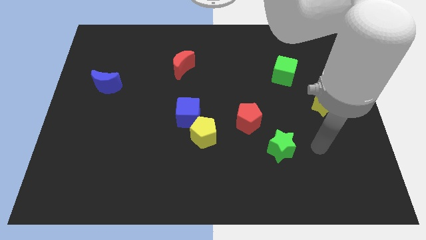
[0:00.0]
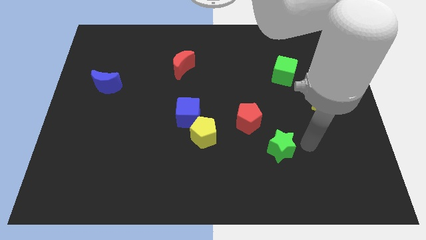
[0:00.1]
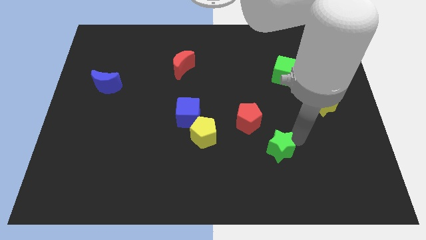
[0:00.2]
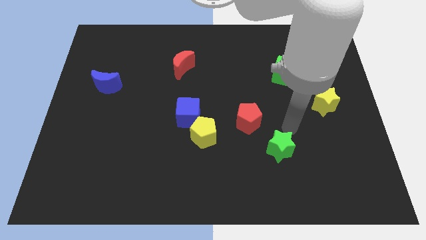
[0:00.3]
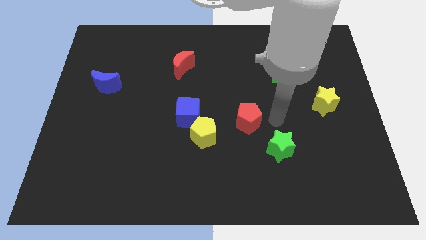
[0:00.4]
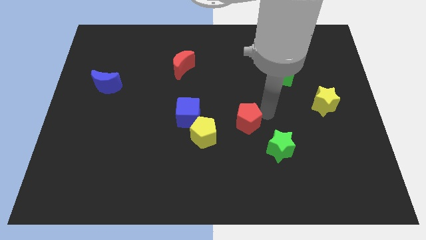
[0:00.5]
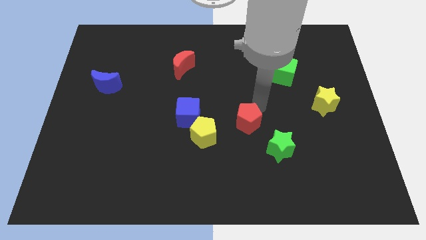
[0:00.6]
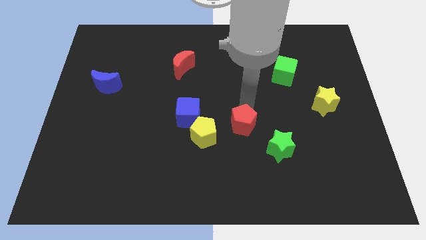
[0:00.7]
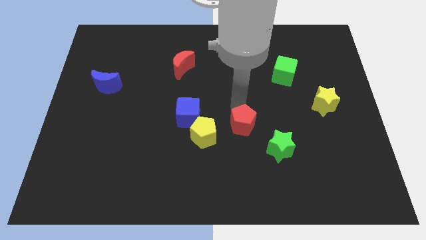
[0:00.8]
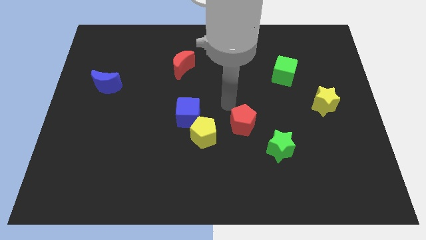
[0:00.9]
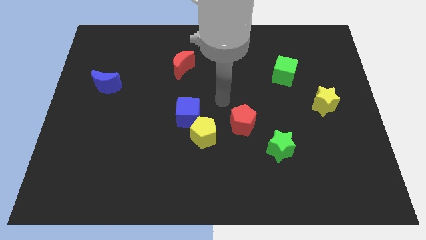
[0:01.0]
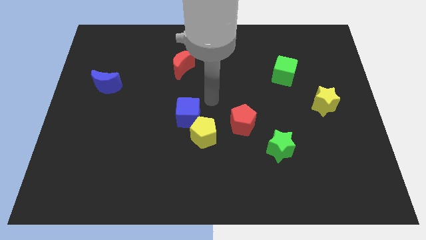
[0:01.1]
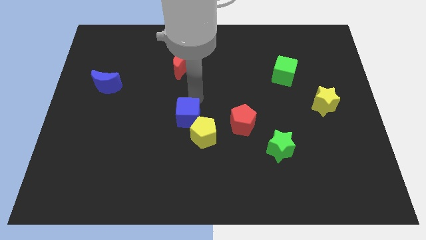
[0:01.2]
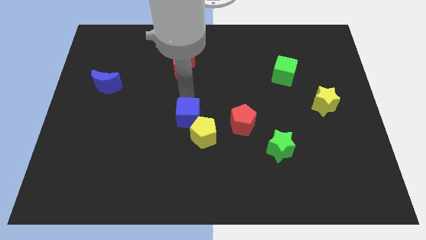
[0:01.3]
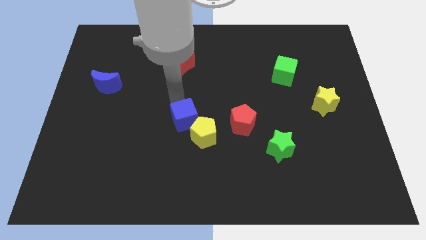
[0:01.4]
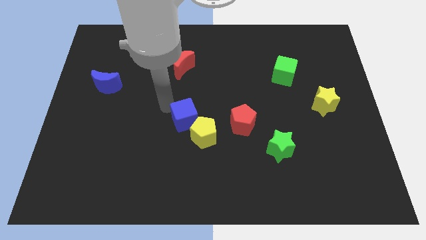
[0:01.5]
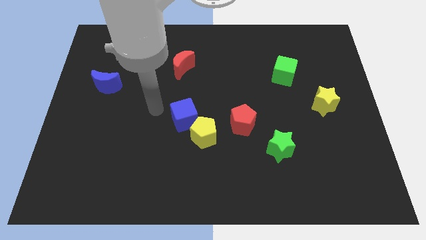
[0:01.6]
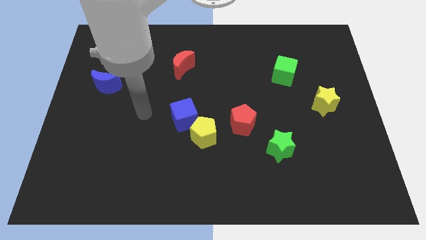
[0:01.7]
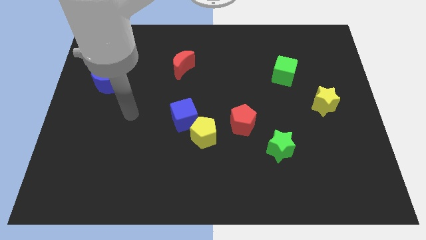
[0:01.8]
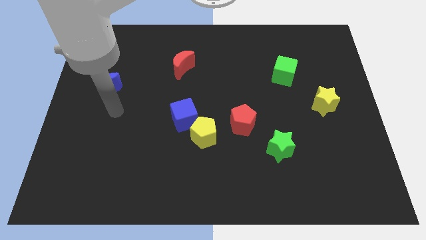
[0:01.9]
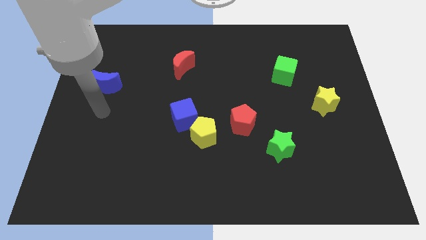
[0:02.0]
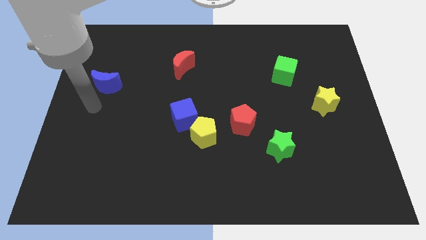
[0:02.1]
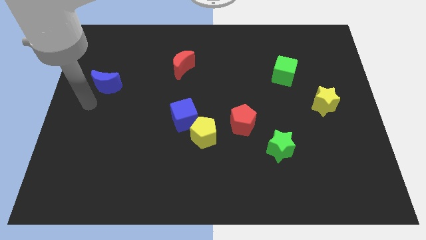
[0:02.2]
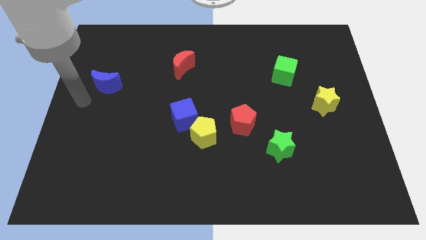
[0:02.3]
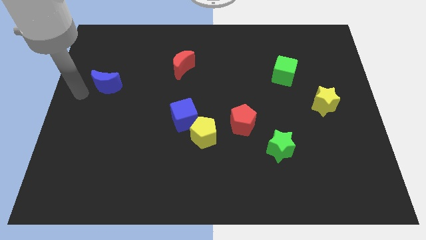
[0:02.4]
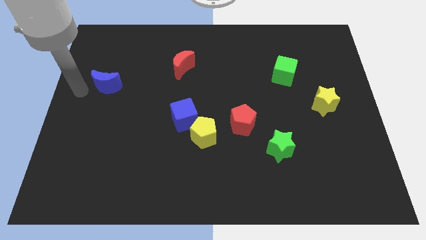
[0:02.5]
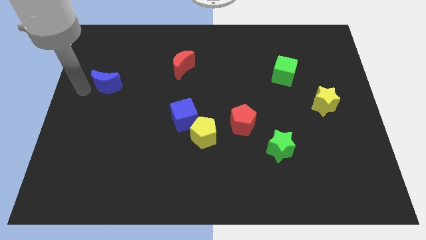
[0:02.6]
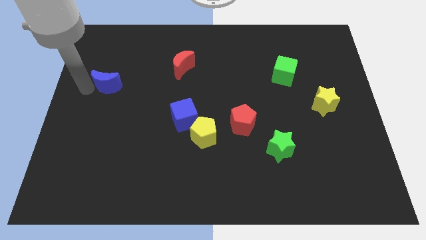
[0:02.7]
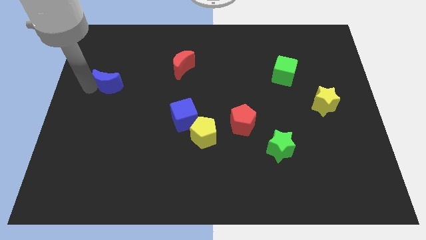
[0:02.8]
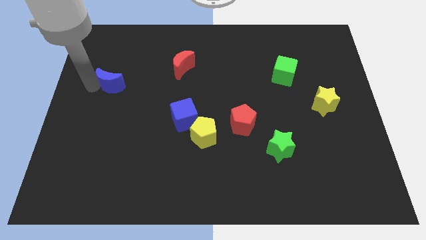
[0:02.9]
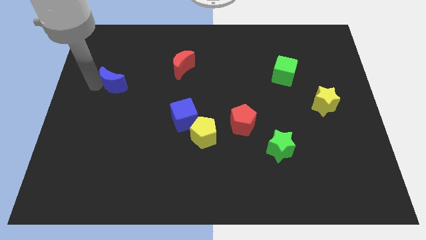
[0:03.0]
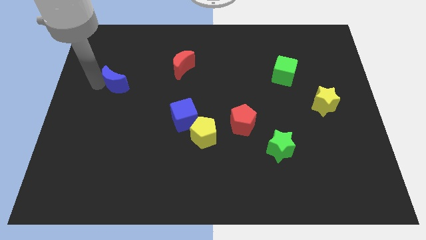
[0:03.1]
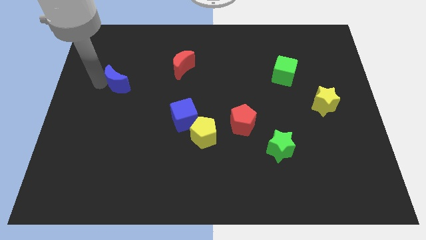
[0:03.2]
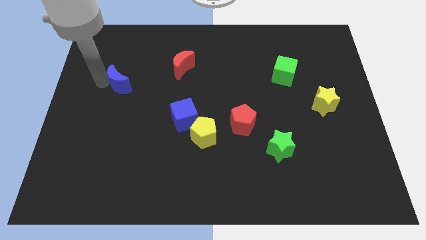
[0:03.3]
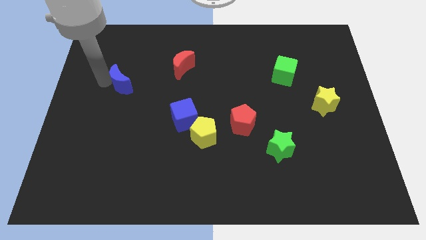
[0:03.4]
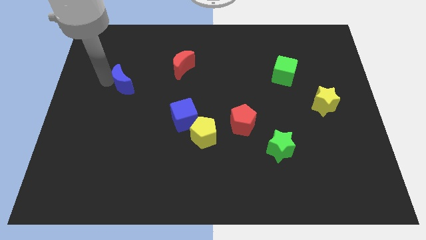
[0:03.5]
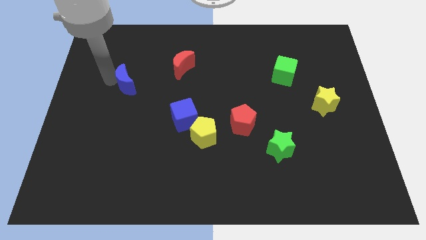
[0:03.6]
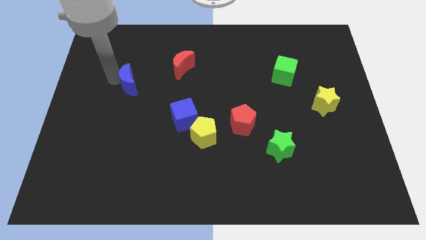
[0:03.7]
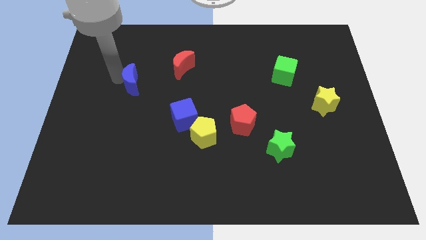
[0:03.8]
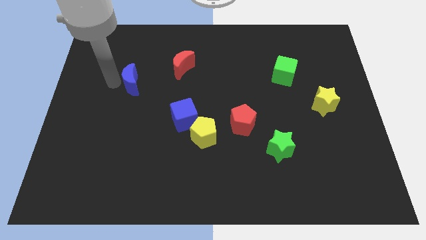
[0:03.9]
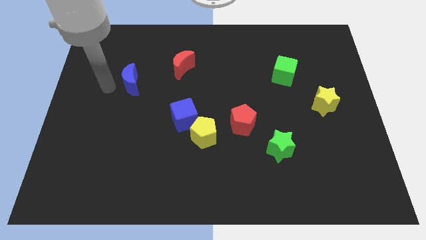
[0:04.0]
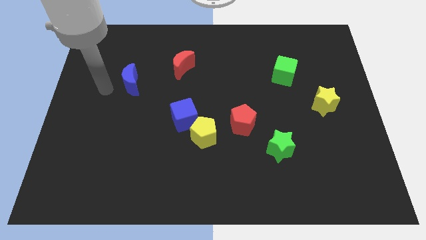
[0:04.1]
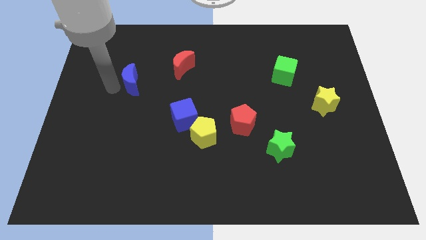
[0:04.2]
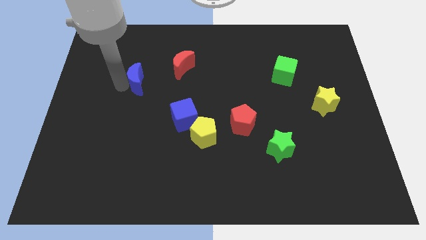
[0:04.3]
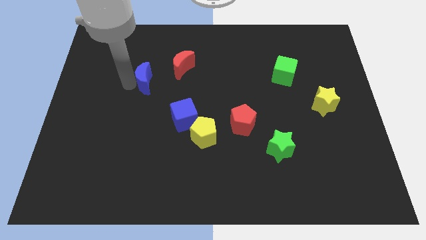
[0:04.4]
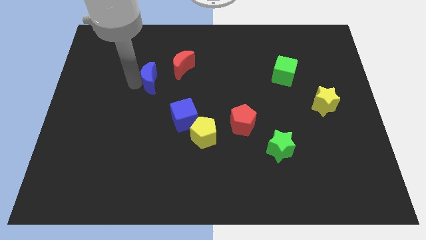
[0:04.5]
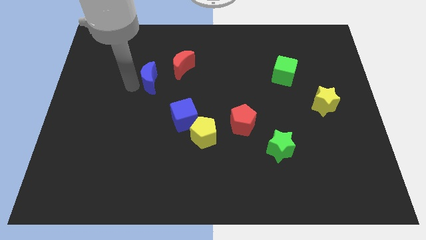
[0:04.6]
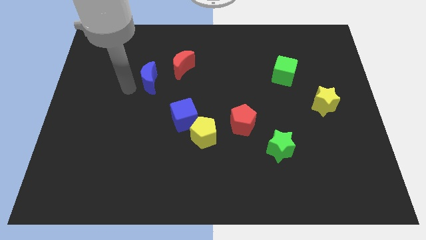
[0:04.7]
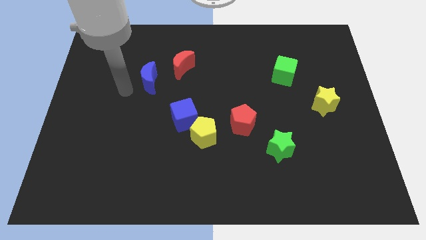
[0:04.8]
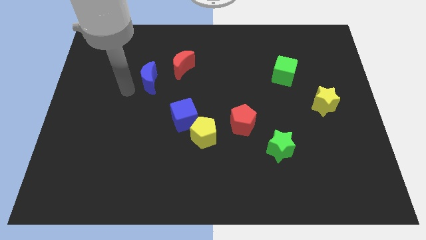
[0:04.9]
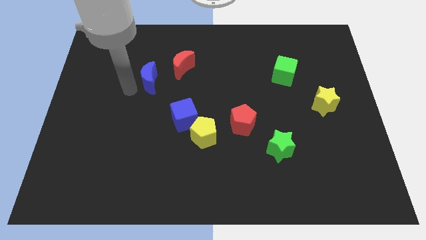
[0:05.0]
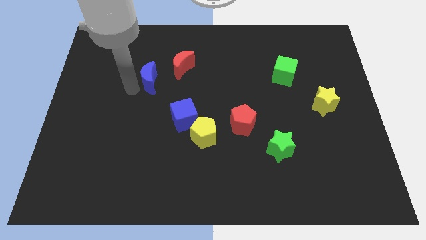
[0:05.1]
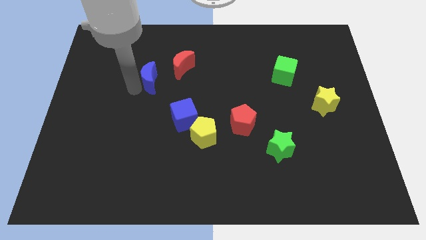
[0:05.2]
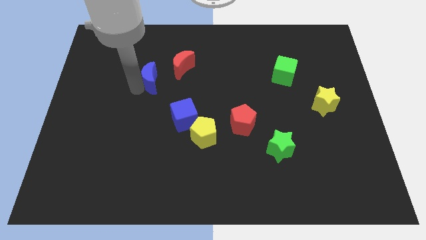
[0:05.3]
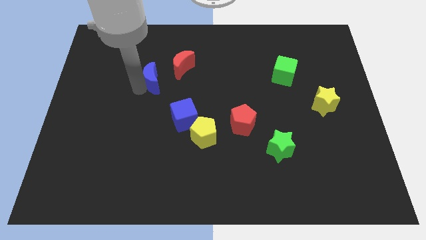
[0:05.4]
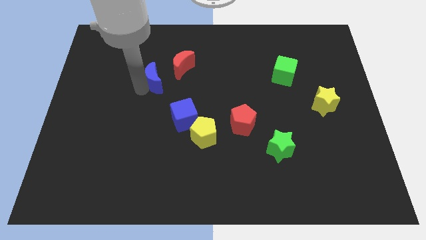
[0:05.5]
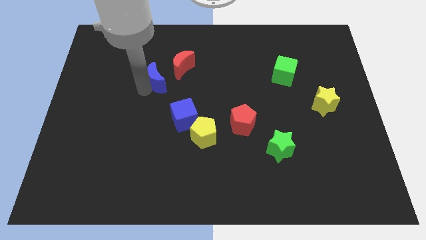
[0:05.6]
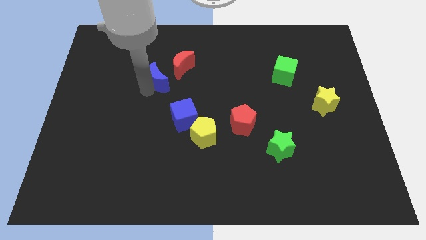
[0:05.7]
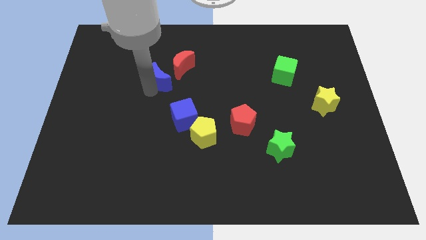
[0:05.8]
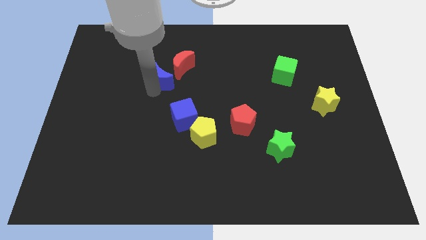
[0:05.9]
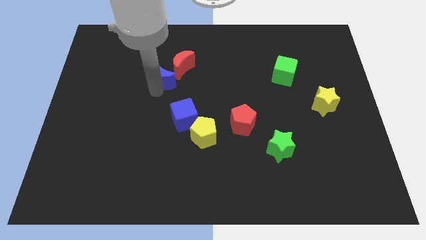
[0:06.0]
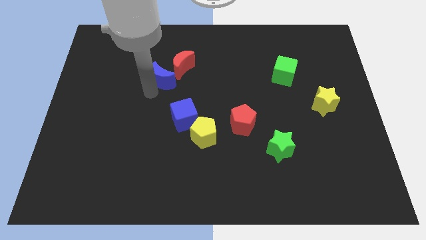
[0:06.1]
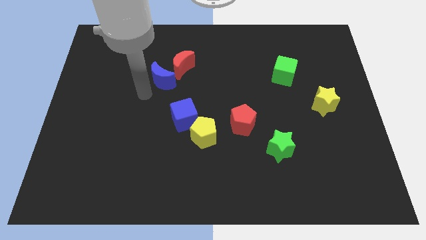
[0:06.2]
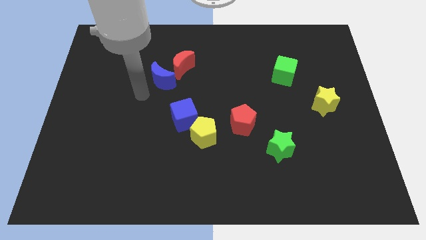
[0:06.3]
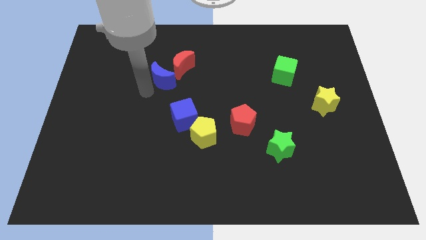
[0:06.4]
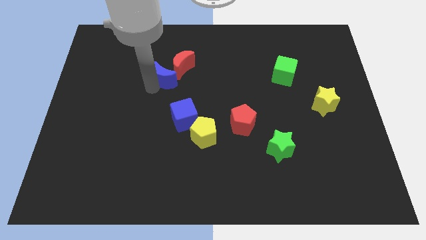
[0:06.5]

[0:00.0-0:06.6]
slide the blue moon towards the red moon

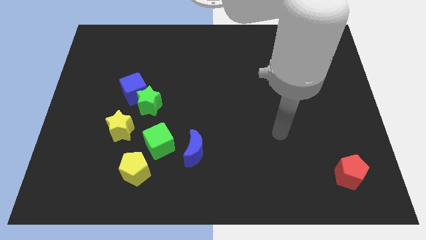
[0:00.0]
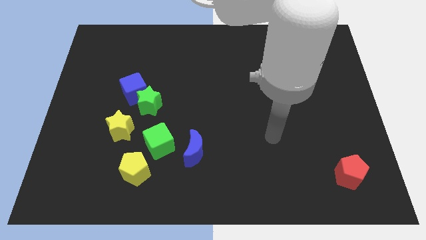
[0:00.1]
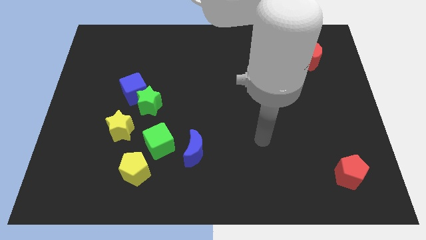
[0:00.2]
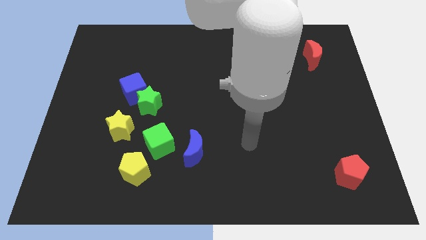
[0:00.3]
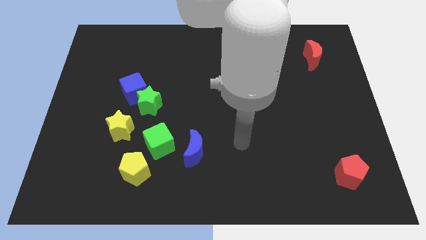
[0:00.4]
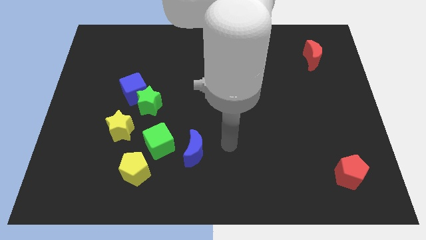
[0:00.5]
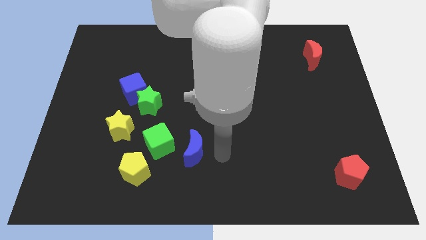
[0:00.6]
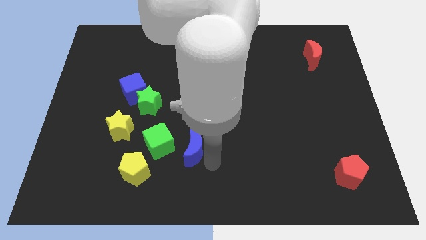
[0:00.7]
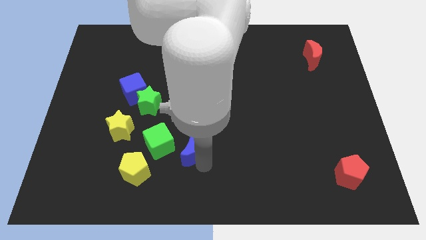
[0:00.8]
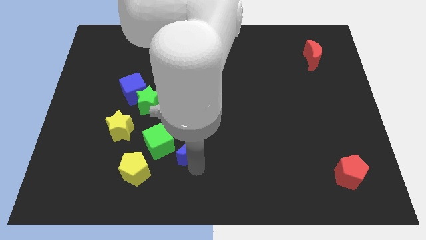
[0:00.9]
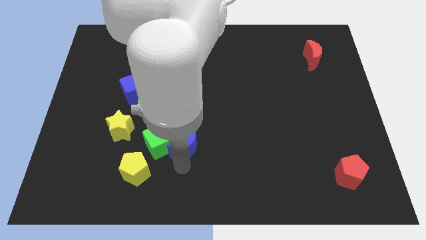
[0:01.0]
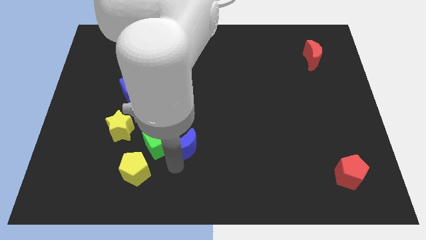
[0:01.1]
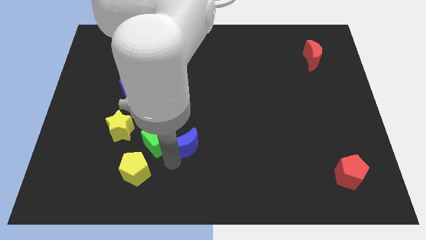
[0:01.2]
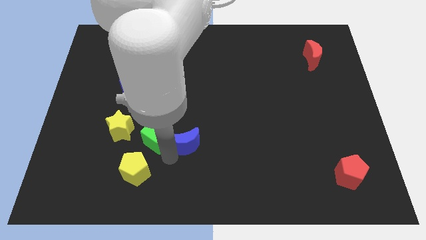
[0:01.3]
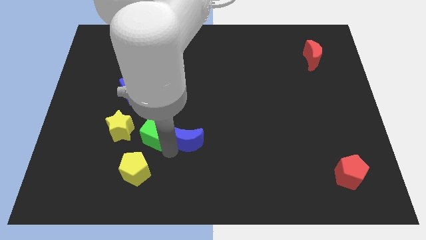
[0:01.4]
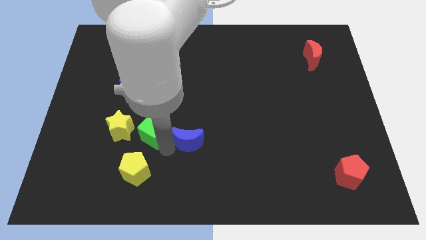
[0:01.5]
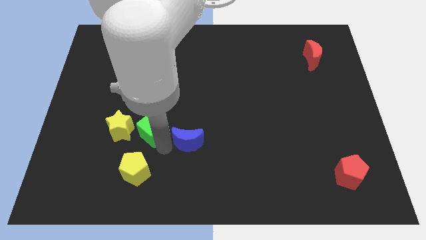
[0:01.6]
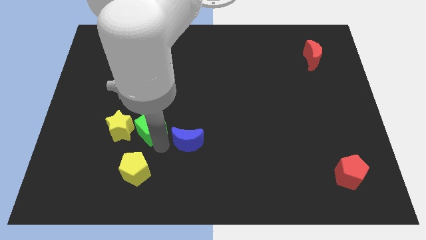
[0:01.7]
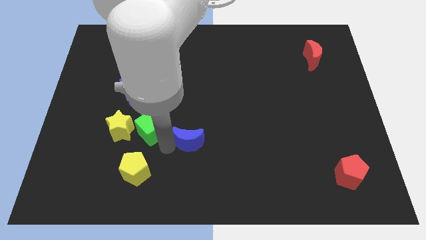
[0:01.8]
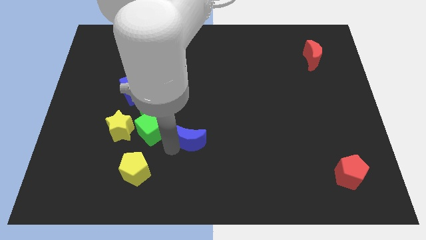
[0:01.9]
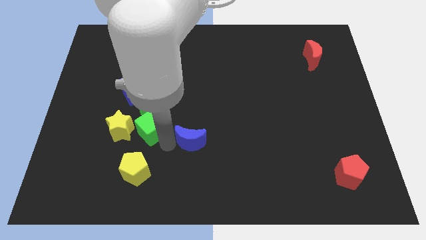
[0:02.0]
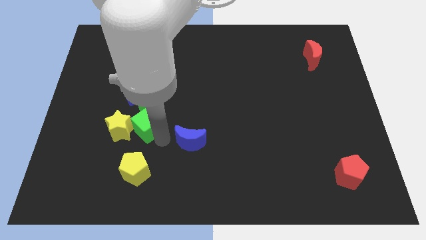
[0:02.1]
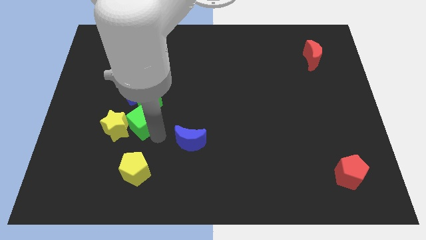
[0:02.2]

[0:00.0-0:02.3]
slide the green cube close to the green star
